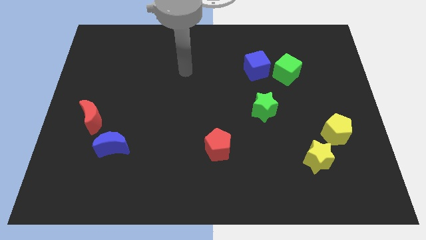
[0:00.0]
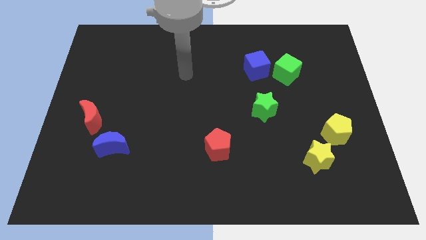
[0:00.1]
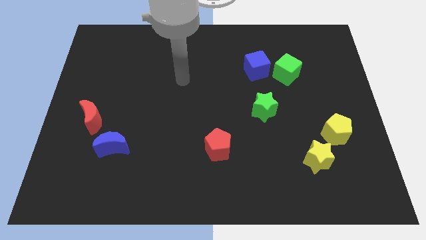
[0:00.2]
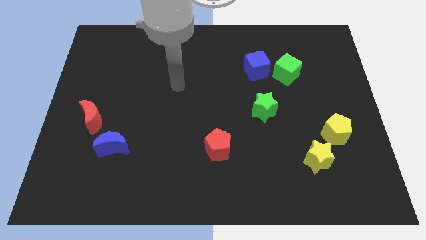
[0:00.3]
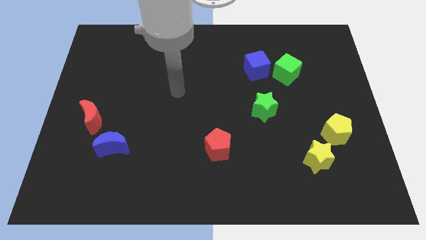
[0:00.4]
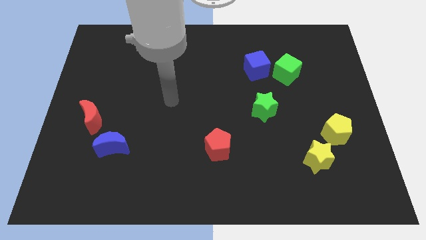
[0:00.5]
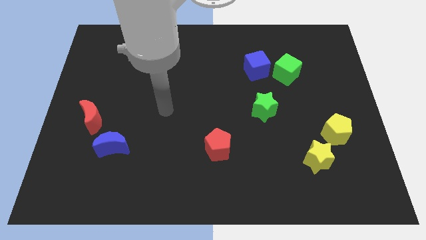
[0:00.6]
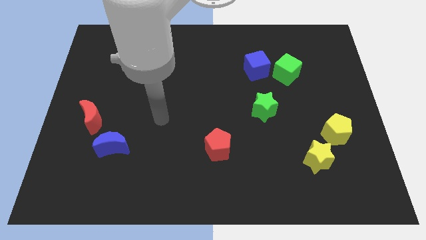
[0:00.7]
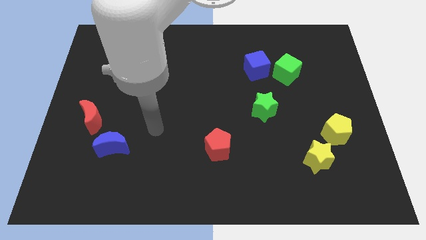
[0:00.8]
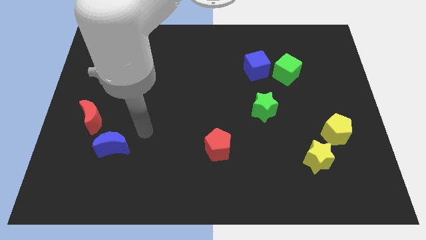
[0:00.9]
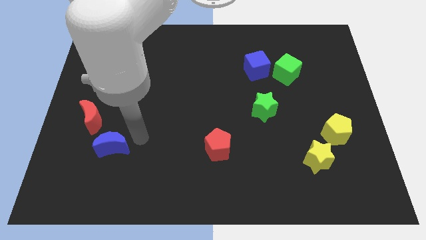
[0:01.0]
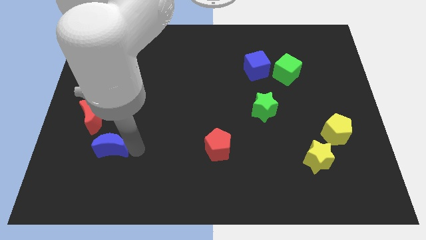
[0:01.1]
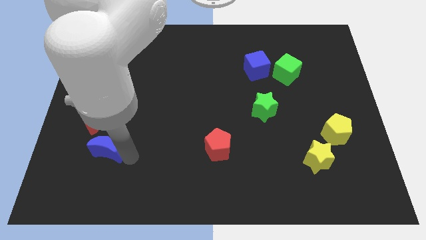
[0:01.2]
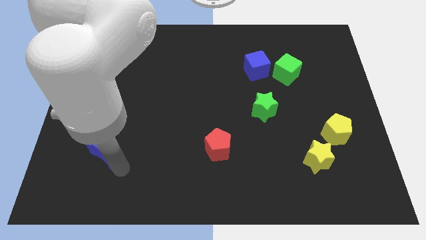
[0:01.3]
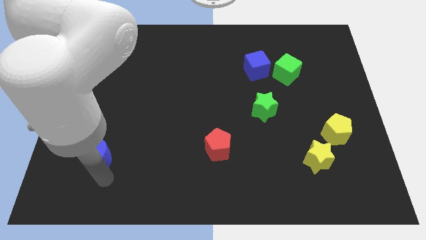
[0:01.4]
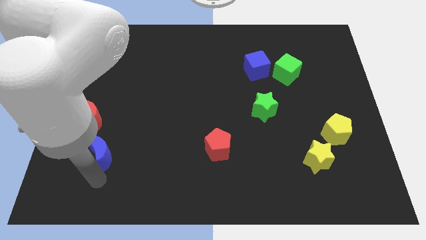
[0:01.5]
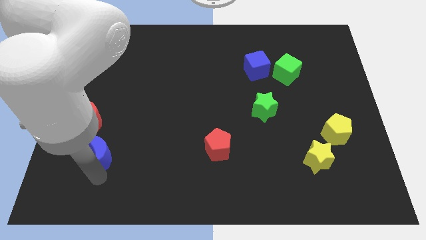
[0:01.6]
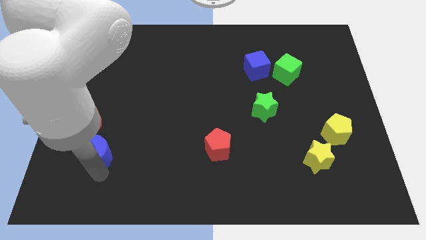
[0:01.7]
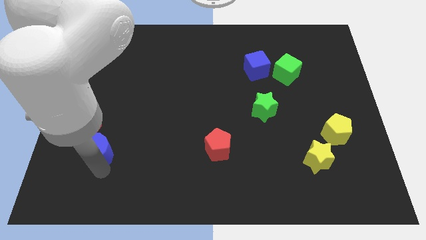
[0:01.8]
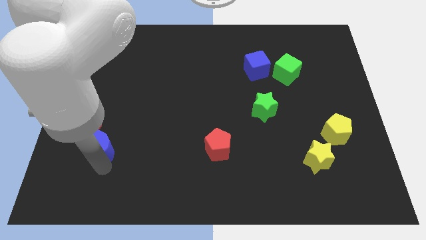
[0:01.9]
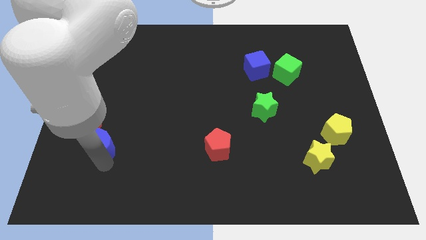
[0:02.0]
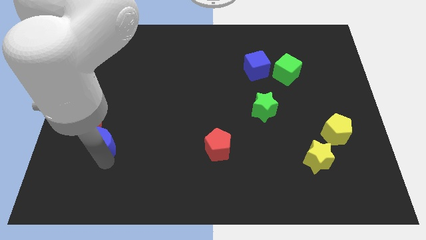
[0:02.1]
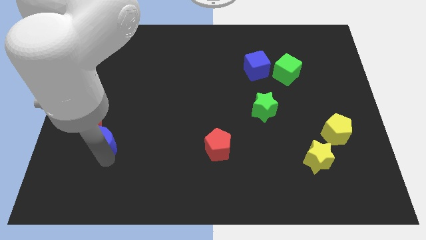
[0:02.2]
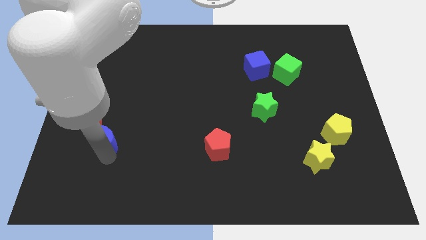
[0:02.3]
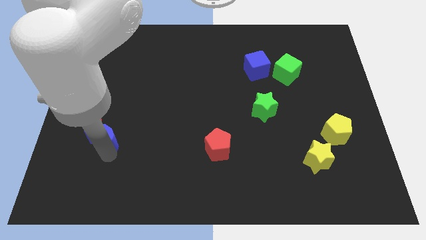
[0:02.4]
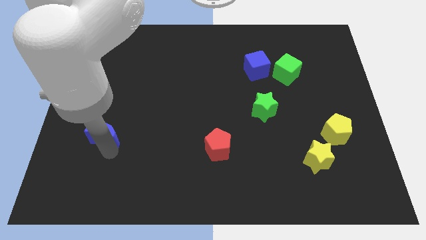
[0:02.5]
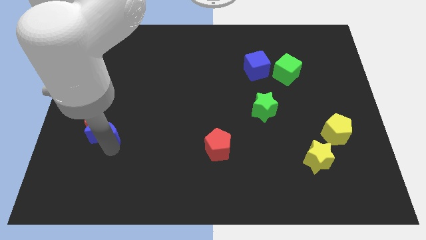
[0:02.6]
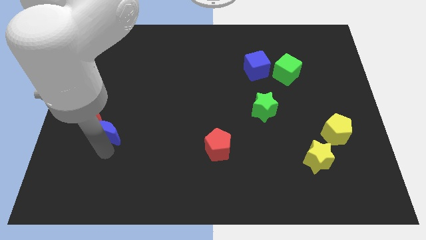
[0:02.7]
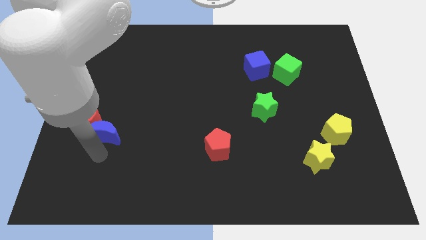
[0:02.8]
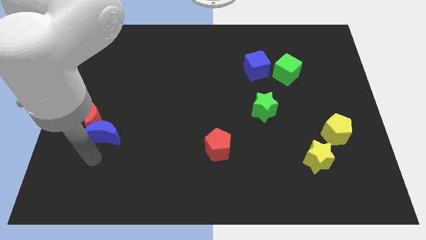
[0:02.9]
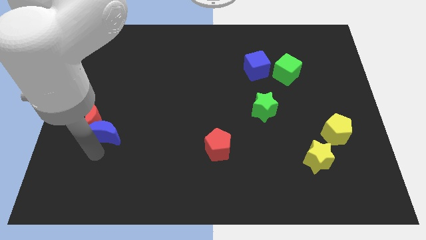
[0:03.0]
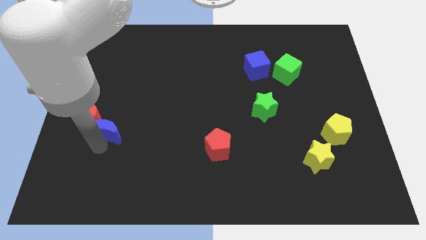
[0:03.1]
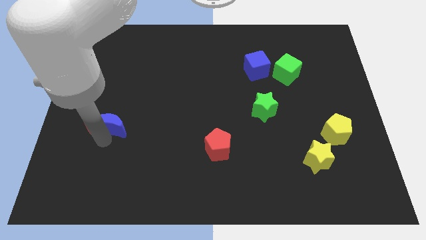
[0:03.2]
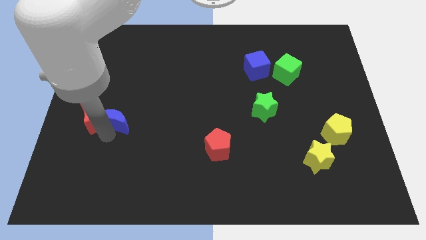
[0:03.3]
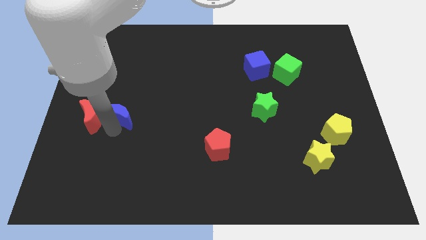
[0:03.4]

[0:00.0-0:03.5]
slightly push the blue moon upwards

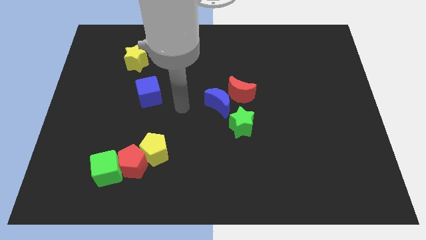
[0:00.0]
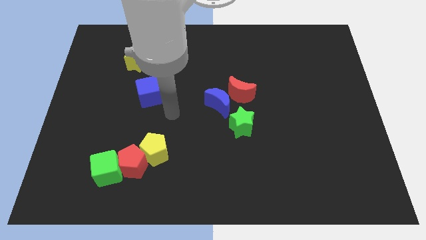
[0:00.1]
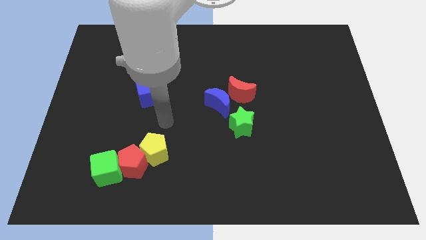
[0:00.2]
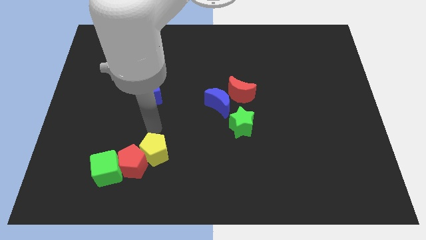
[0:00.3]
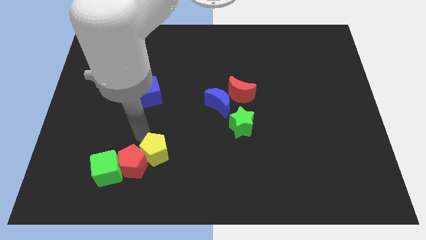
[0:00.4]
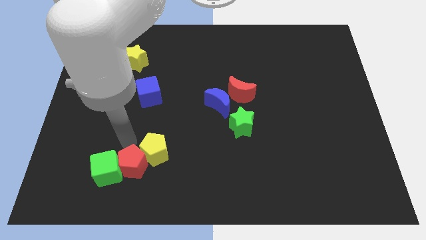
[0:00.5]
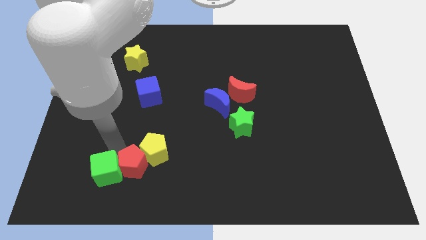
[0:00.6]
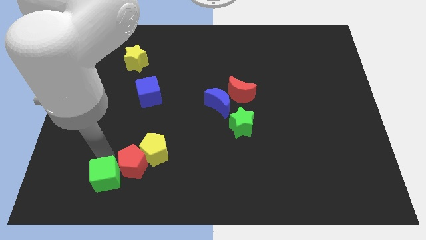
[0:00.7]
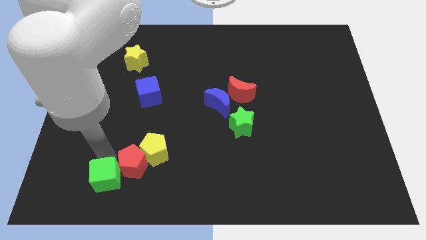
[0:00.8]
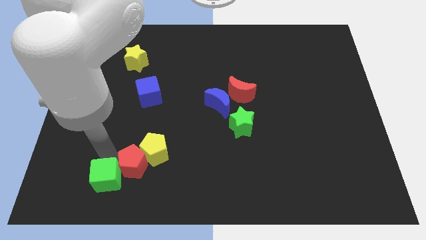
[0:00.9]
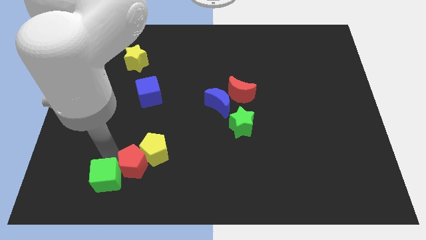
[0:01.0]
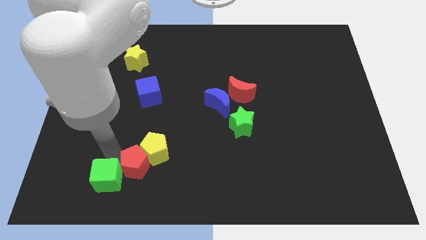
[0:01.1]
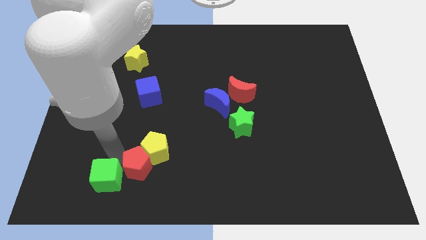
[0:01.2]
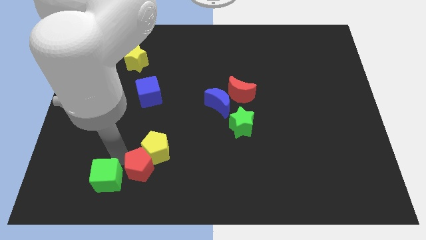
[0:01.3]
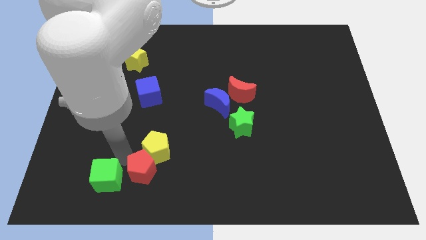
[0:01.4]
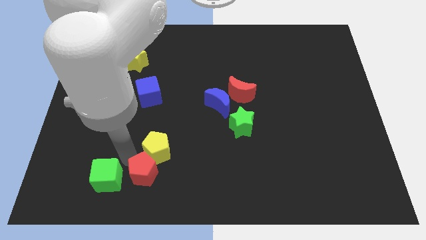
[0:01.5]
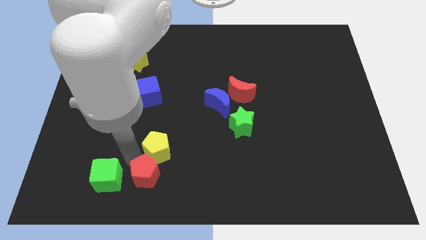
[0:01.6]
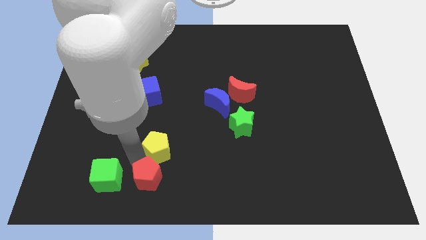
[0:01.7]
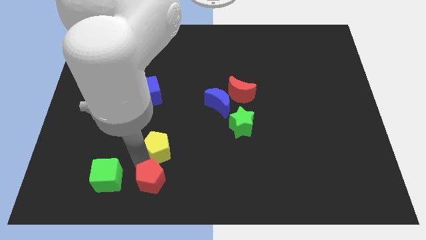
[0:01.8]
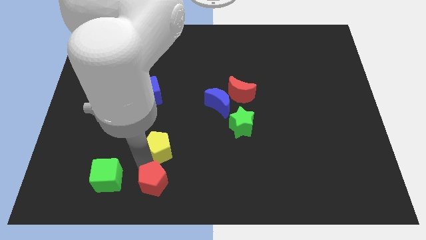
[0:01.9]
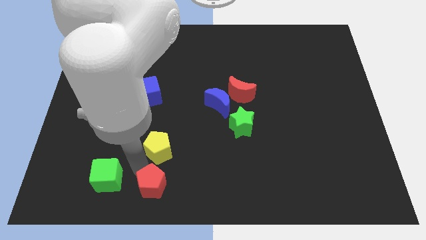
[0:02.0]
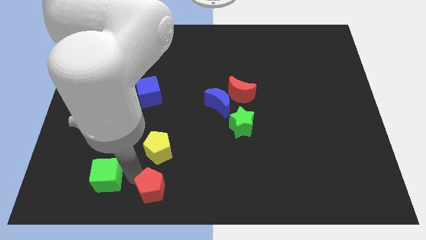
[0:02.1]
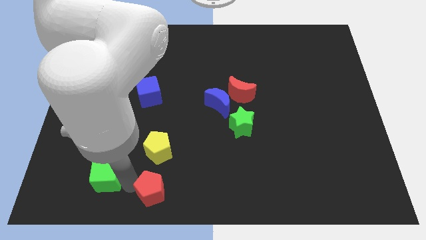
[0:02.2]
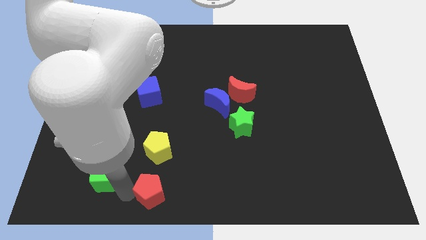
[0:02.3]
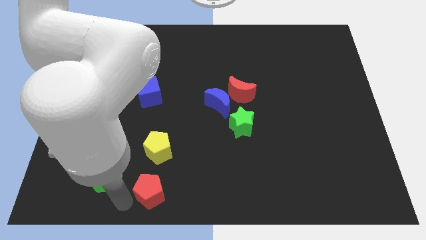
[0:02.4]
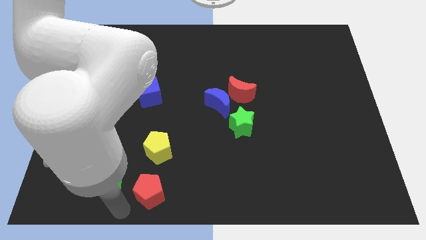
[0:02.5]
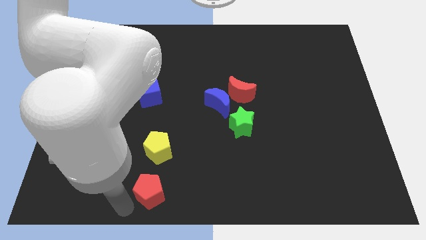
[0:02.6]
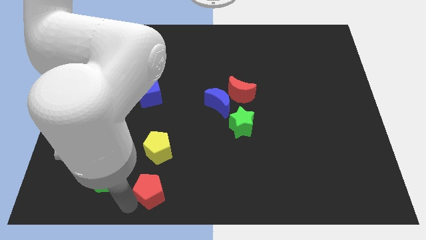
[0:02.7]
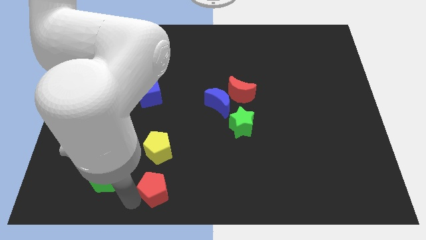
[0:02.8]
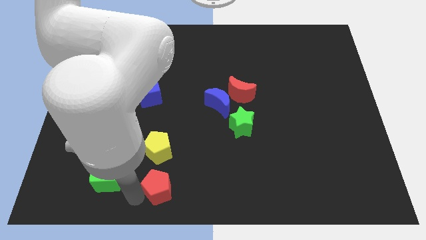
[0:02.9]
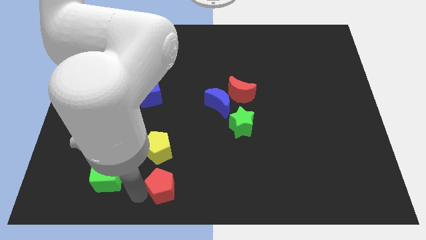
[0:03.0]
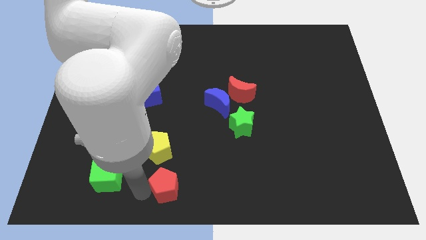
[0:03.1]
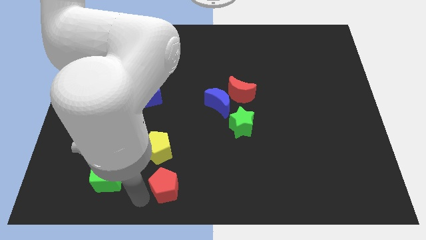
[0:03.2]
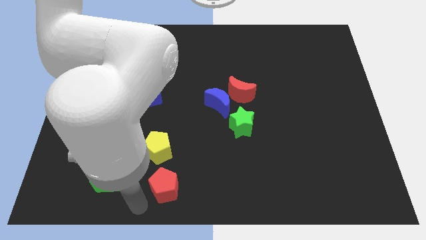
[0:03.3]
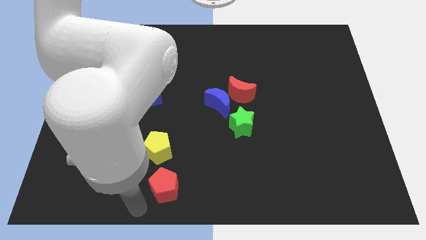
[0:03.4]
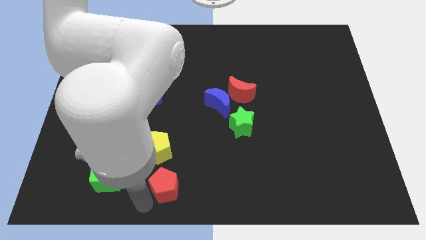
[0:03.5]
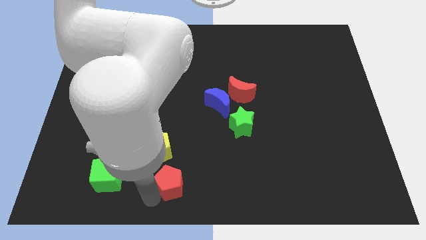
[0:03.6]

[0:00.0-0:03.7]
move the red pentagon to the right a bit

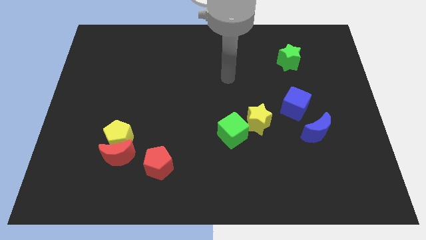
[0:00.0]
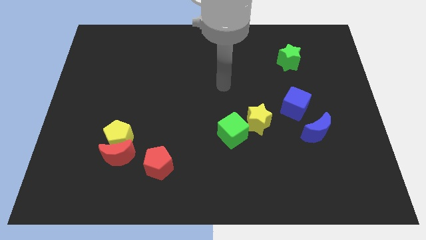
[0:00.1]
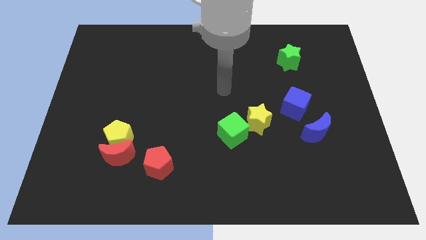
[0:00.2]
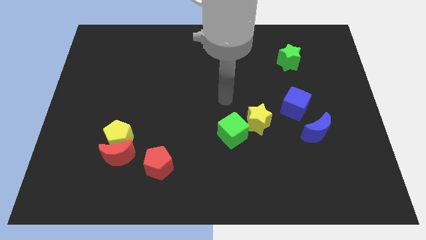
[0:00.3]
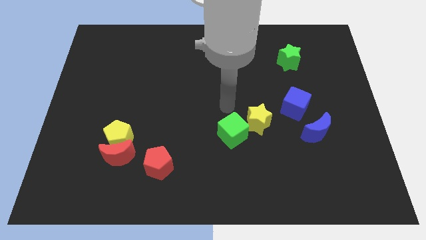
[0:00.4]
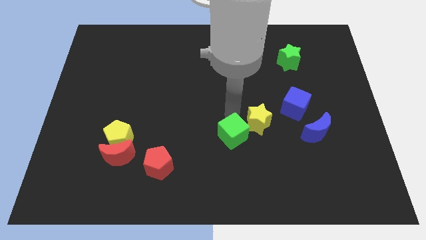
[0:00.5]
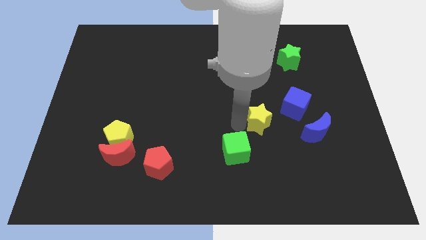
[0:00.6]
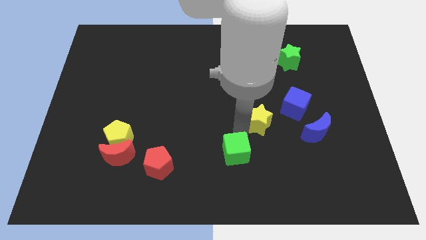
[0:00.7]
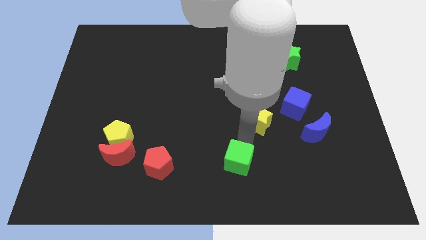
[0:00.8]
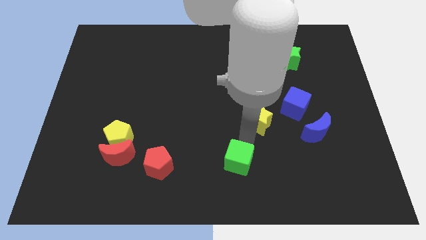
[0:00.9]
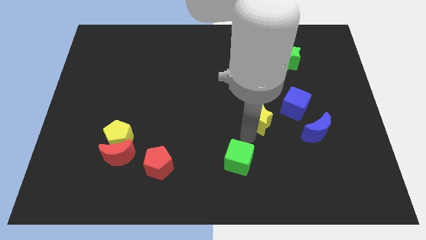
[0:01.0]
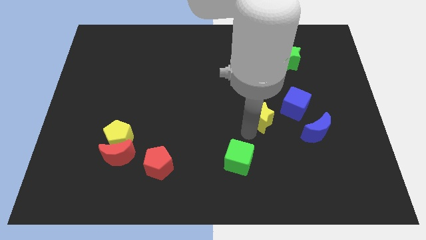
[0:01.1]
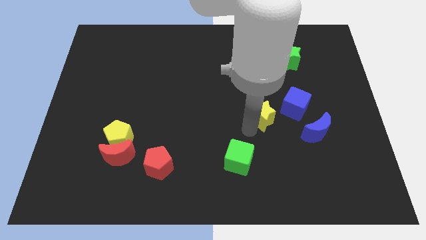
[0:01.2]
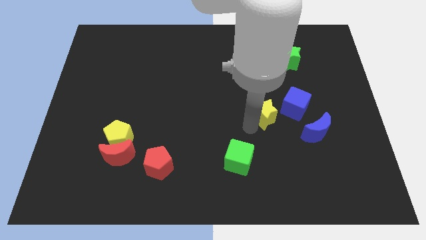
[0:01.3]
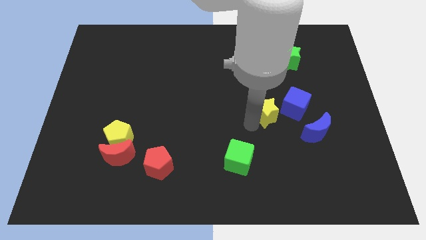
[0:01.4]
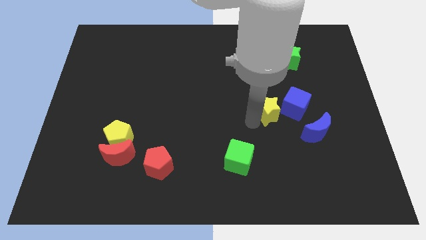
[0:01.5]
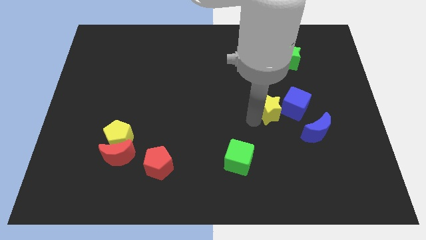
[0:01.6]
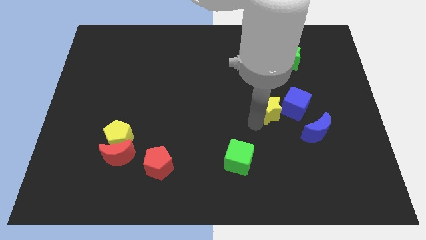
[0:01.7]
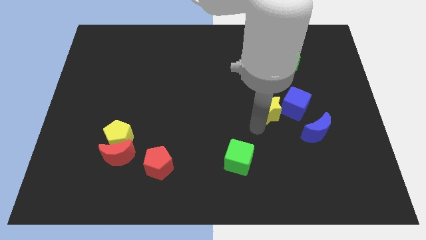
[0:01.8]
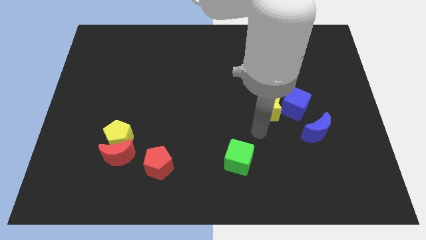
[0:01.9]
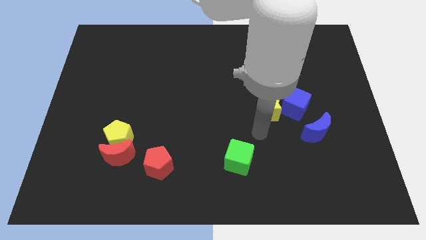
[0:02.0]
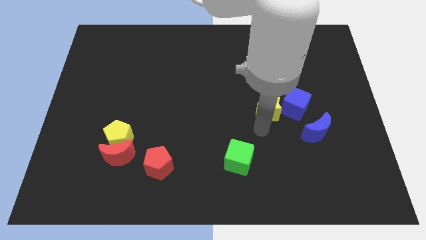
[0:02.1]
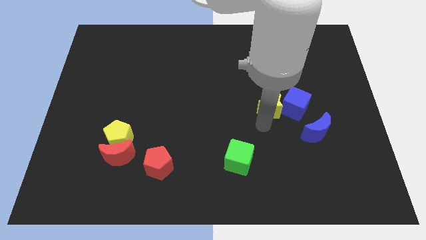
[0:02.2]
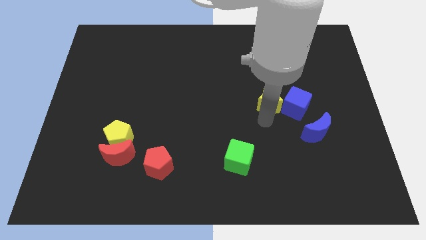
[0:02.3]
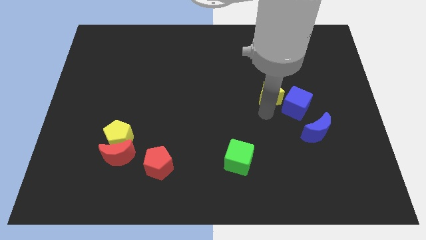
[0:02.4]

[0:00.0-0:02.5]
push the yellow star diagonally upwards and to the right a little
